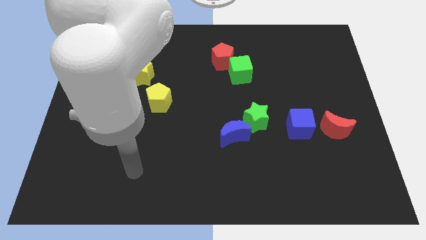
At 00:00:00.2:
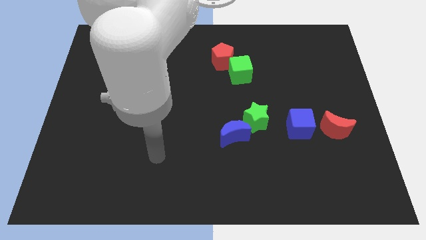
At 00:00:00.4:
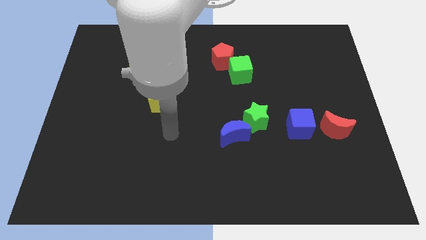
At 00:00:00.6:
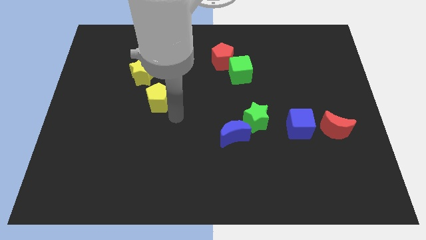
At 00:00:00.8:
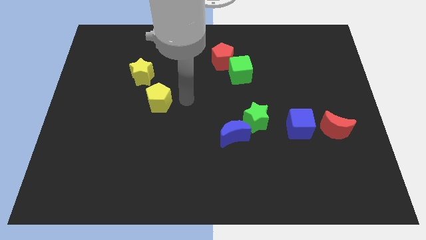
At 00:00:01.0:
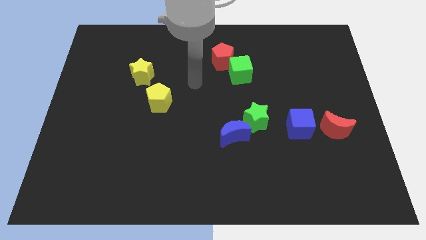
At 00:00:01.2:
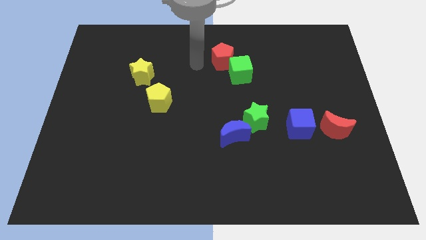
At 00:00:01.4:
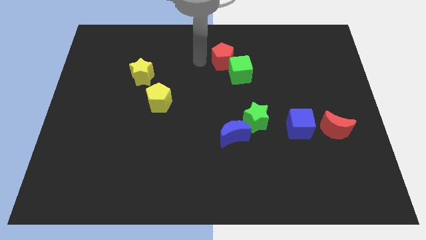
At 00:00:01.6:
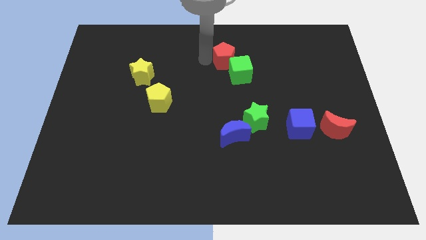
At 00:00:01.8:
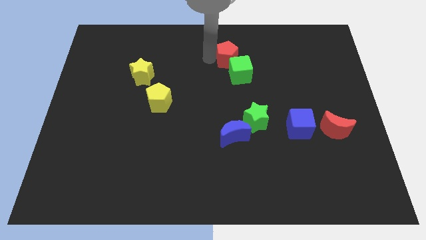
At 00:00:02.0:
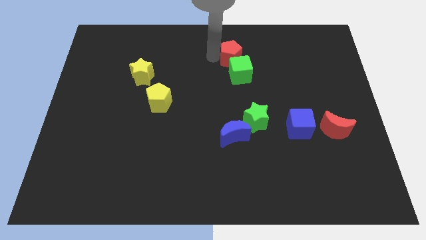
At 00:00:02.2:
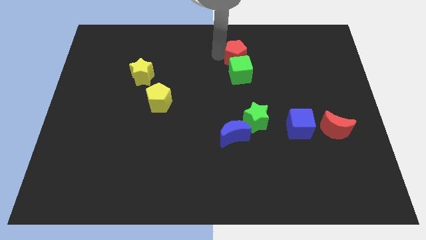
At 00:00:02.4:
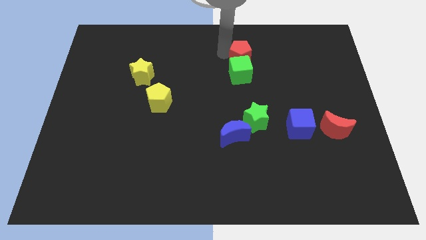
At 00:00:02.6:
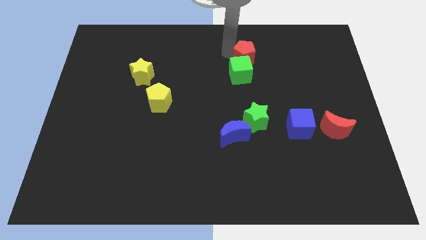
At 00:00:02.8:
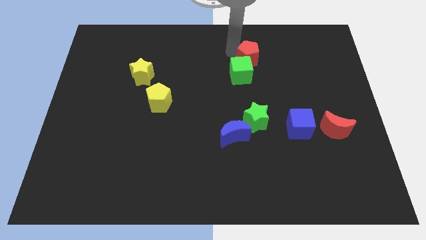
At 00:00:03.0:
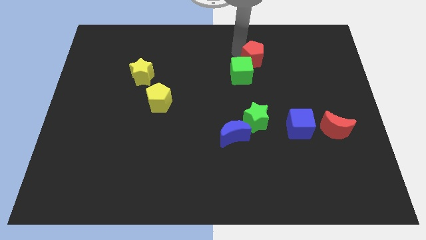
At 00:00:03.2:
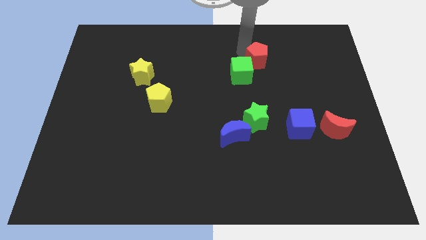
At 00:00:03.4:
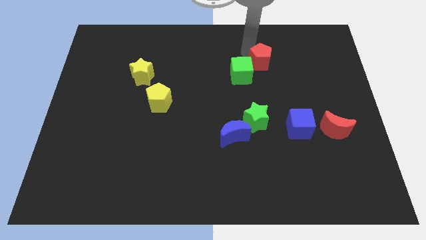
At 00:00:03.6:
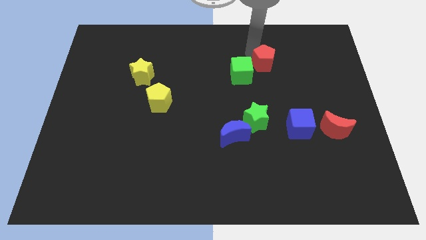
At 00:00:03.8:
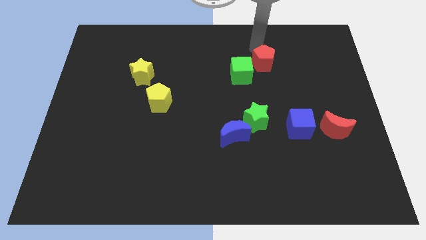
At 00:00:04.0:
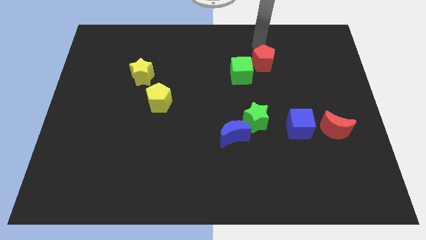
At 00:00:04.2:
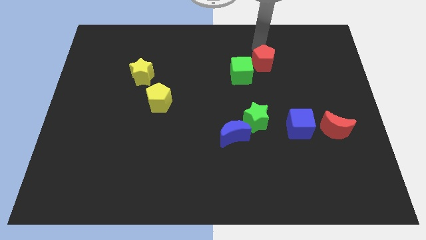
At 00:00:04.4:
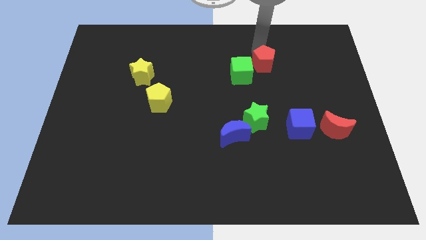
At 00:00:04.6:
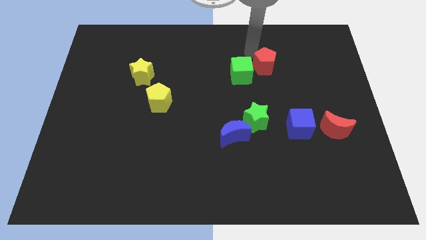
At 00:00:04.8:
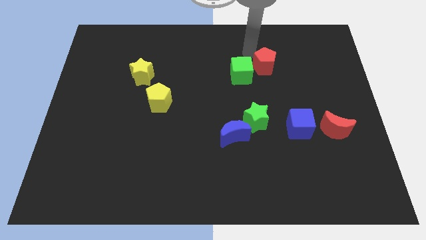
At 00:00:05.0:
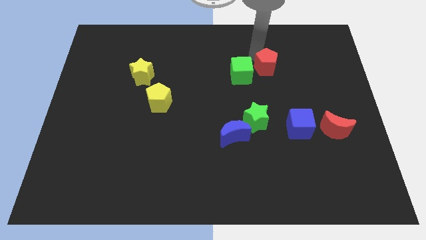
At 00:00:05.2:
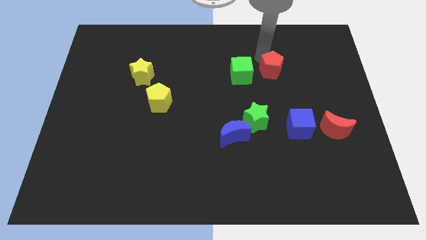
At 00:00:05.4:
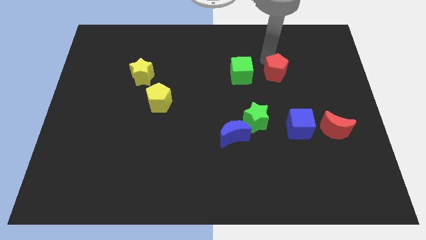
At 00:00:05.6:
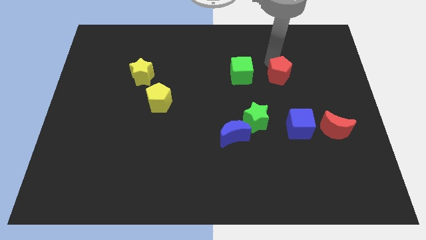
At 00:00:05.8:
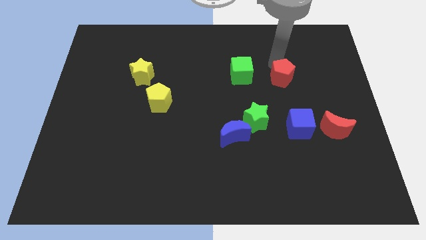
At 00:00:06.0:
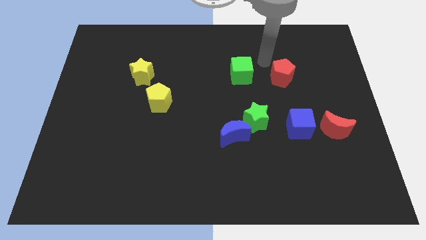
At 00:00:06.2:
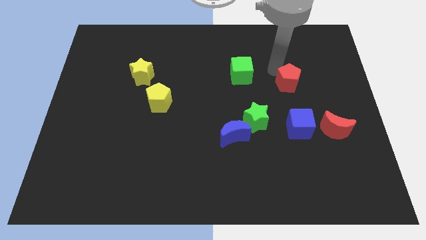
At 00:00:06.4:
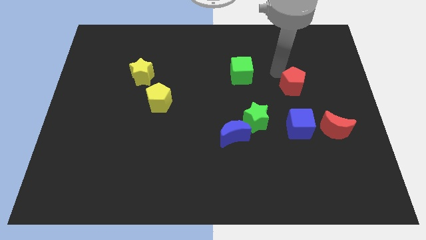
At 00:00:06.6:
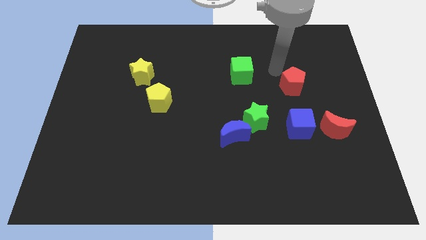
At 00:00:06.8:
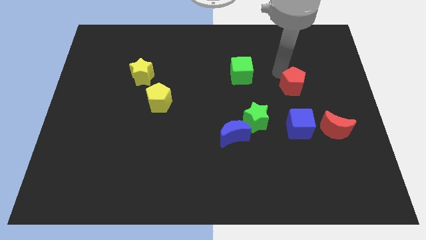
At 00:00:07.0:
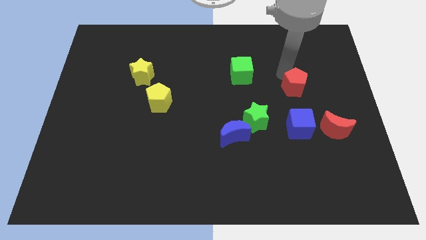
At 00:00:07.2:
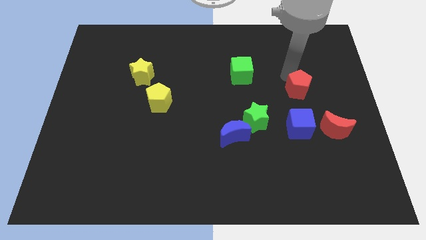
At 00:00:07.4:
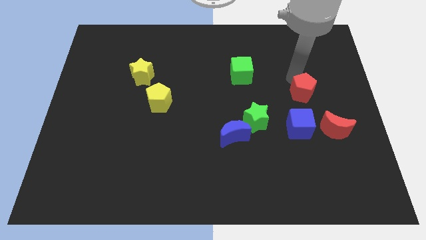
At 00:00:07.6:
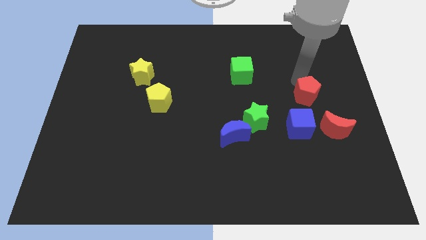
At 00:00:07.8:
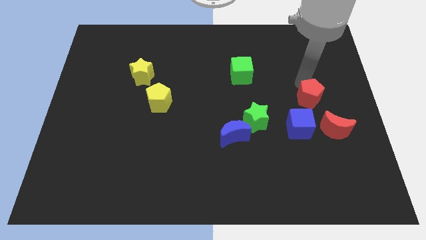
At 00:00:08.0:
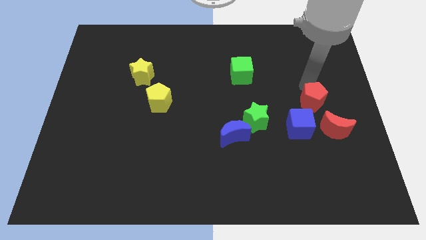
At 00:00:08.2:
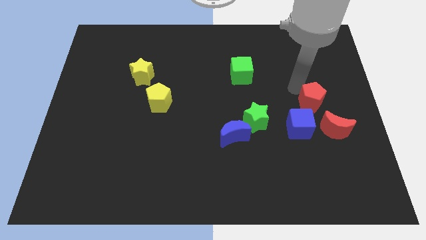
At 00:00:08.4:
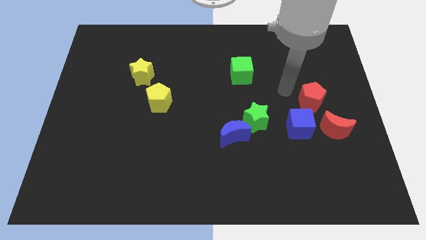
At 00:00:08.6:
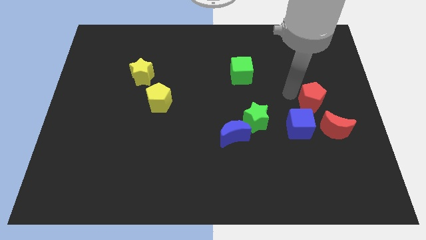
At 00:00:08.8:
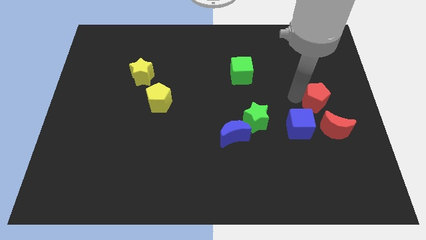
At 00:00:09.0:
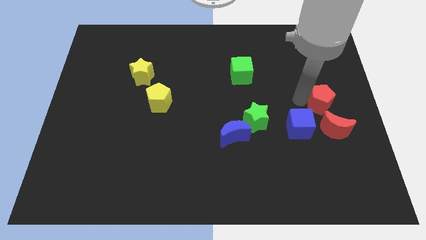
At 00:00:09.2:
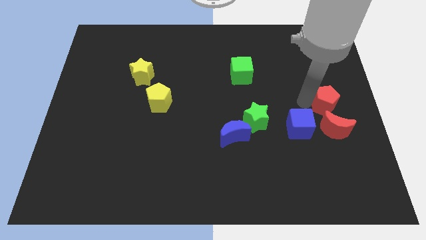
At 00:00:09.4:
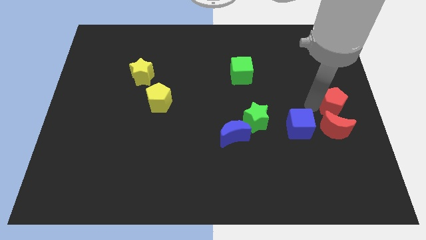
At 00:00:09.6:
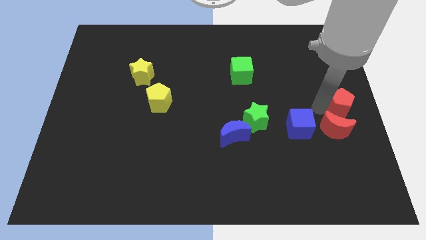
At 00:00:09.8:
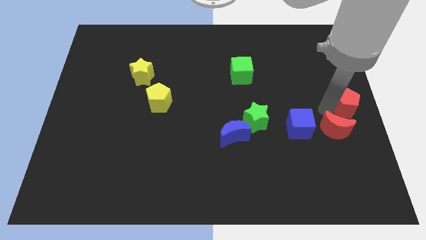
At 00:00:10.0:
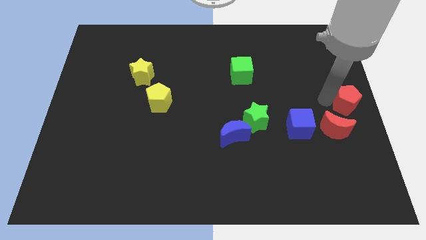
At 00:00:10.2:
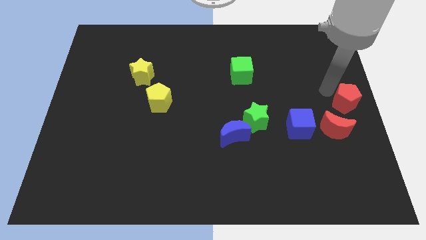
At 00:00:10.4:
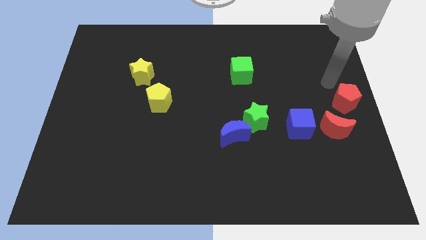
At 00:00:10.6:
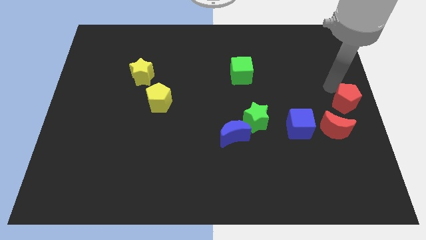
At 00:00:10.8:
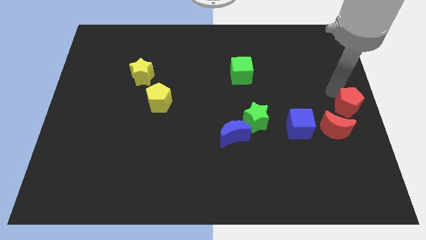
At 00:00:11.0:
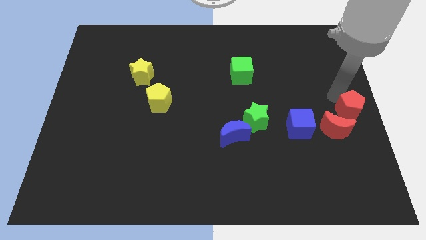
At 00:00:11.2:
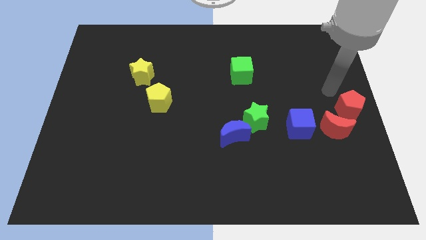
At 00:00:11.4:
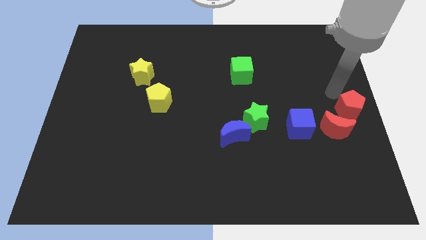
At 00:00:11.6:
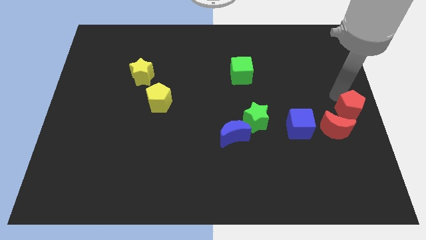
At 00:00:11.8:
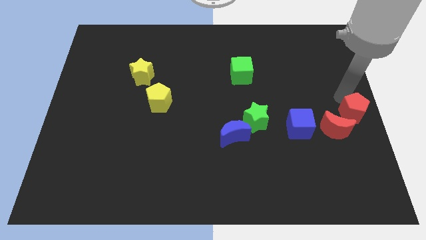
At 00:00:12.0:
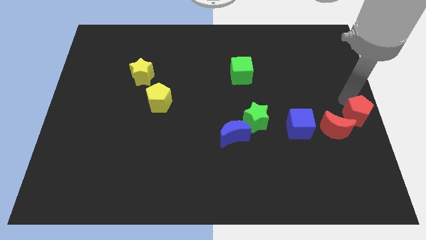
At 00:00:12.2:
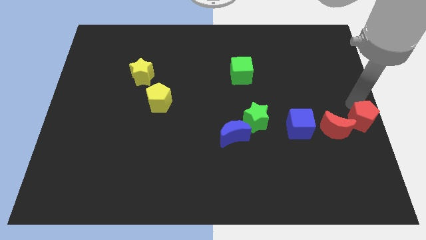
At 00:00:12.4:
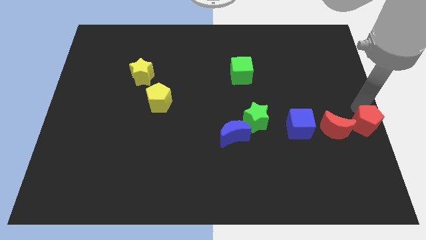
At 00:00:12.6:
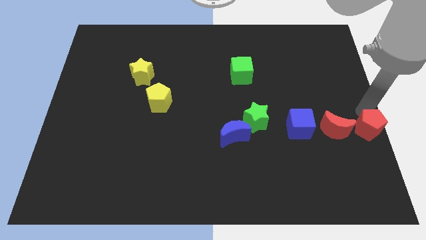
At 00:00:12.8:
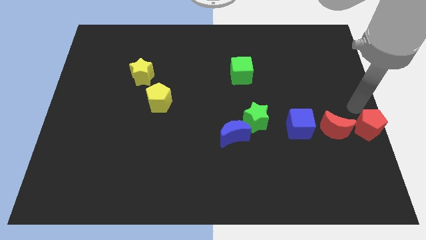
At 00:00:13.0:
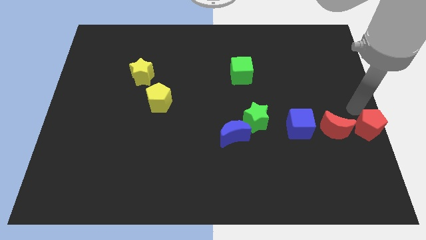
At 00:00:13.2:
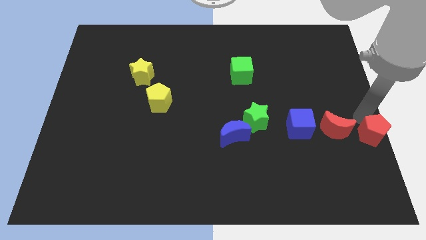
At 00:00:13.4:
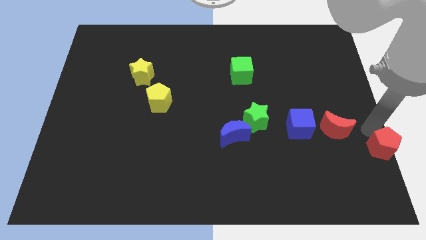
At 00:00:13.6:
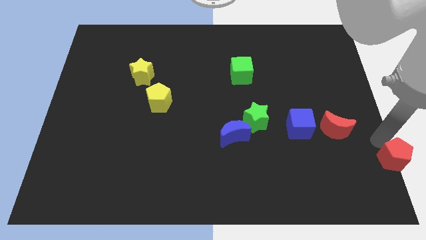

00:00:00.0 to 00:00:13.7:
put the red pentagon to the bottom right corner
